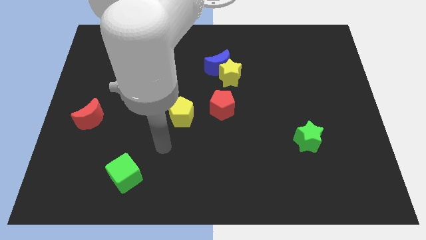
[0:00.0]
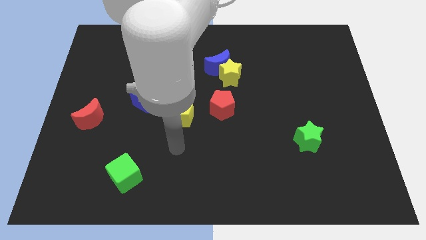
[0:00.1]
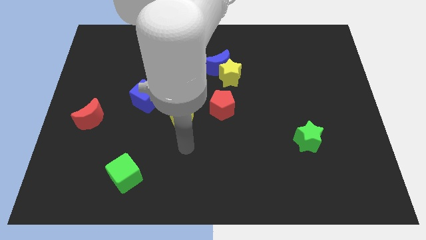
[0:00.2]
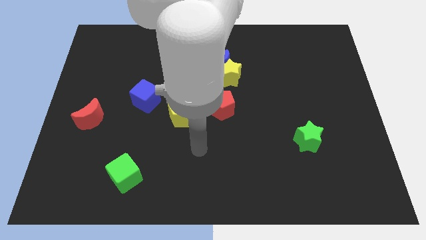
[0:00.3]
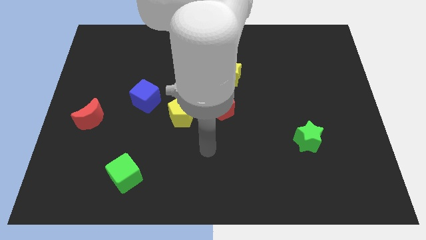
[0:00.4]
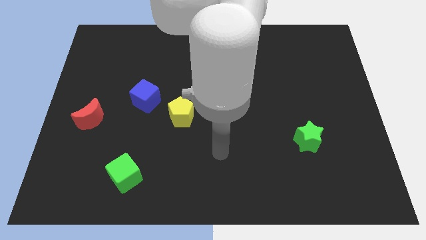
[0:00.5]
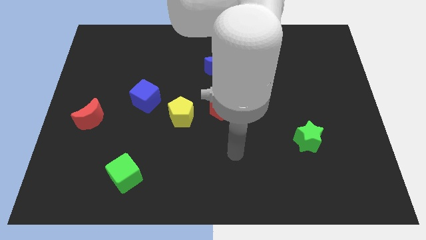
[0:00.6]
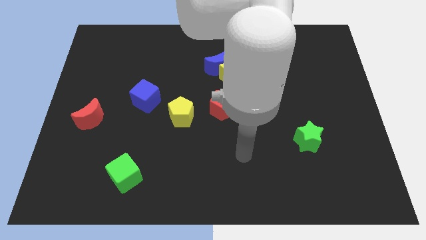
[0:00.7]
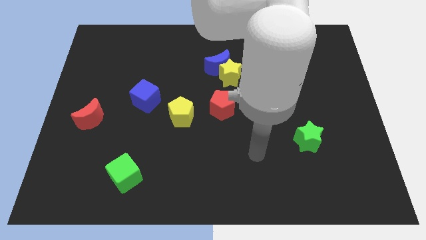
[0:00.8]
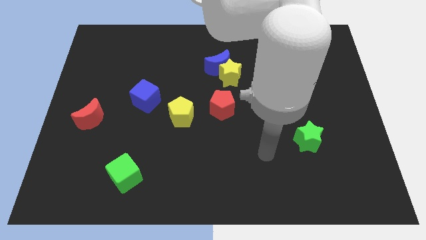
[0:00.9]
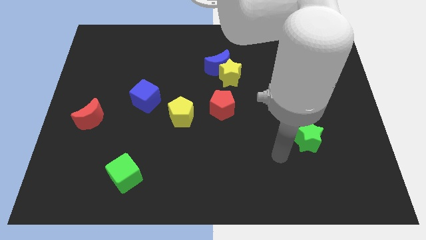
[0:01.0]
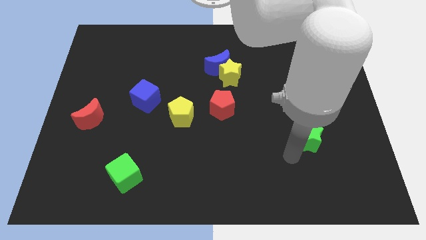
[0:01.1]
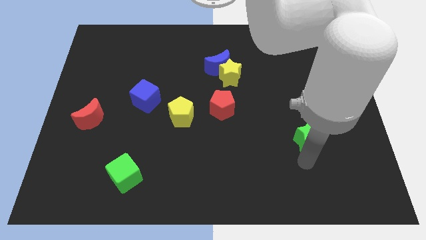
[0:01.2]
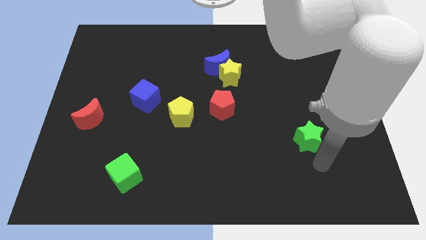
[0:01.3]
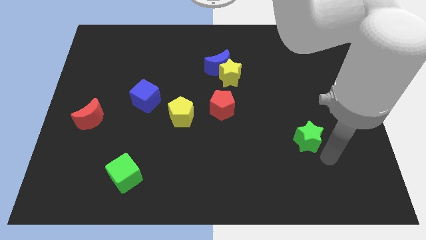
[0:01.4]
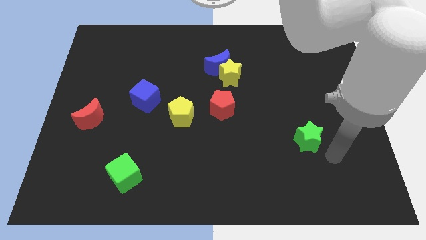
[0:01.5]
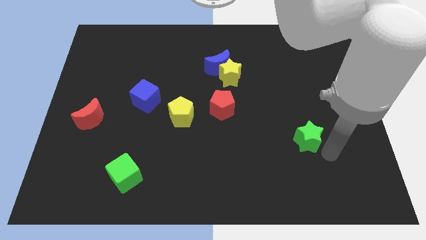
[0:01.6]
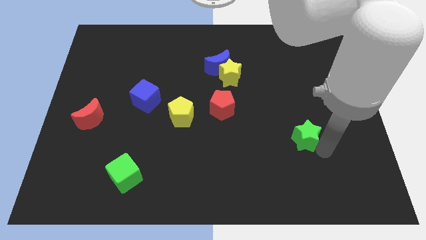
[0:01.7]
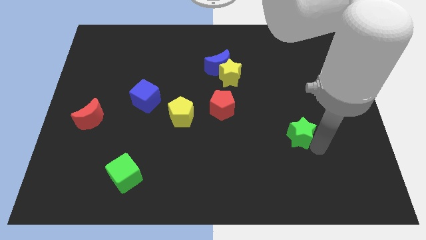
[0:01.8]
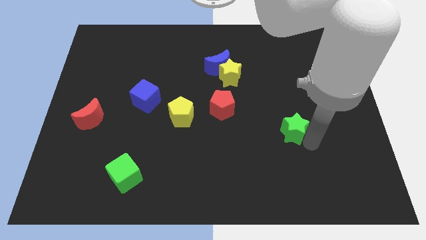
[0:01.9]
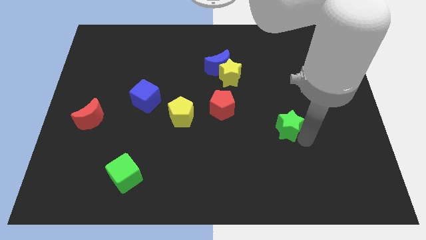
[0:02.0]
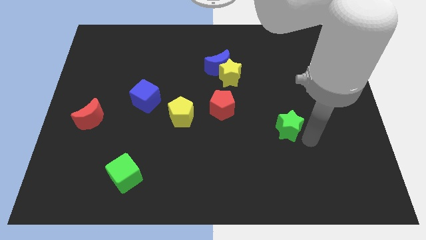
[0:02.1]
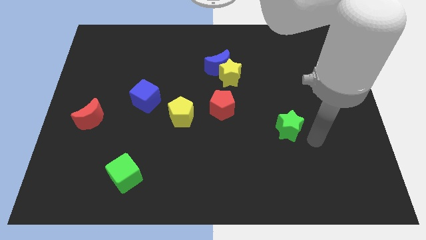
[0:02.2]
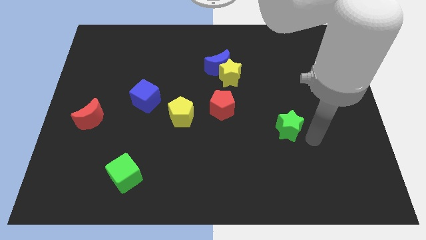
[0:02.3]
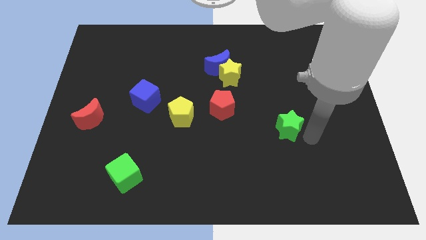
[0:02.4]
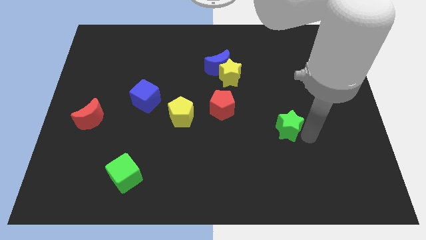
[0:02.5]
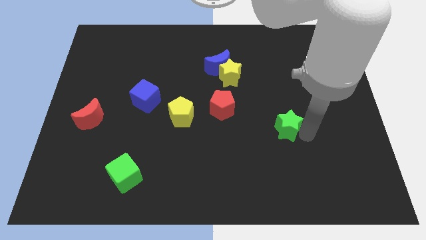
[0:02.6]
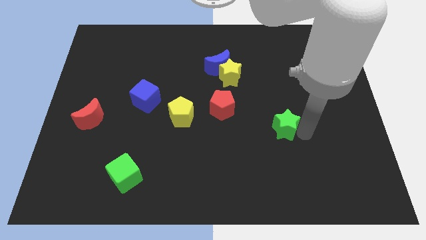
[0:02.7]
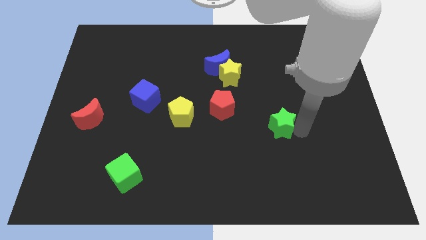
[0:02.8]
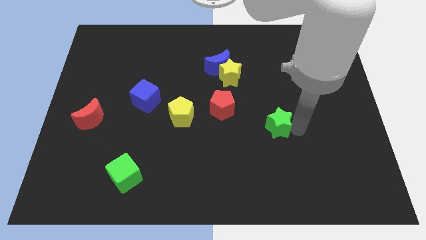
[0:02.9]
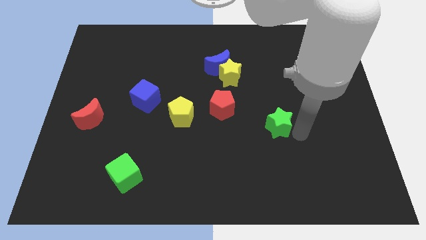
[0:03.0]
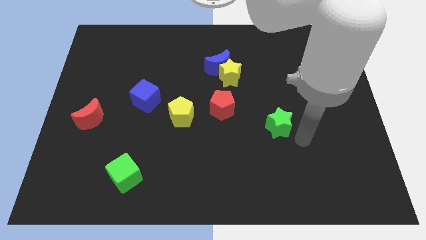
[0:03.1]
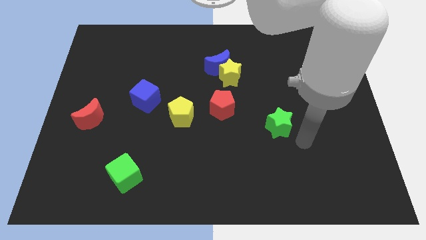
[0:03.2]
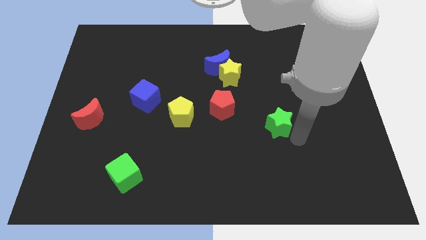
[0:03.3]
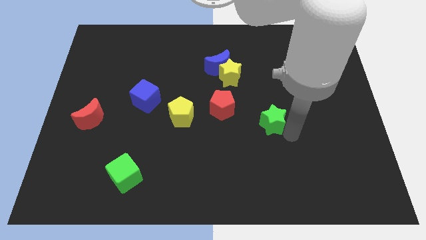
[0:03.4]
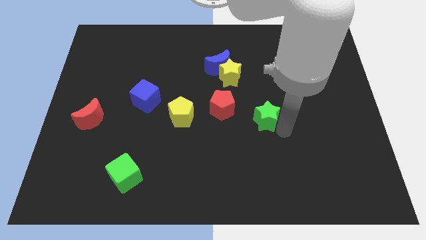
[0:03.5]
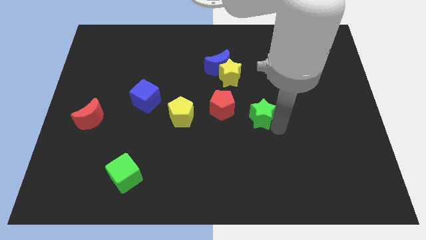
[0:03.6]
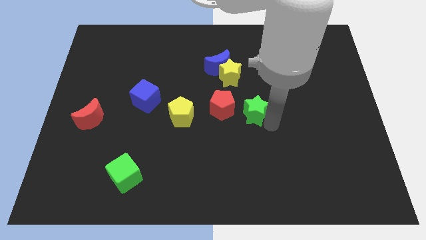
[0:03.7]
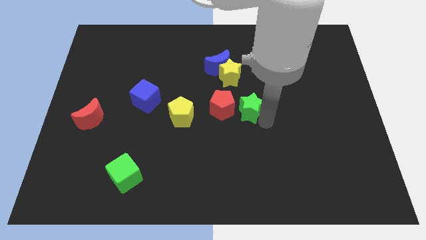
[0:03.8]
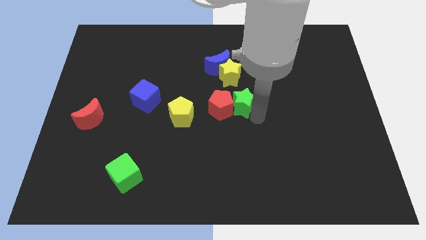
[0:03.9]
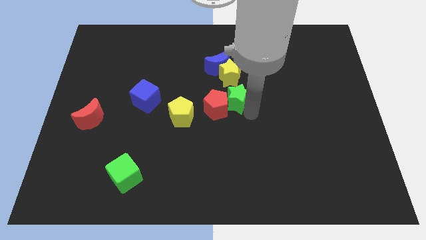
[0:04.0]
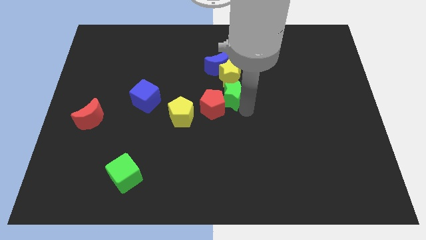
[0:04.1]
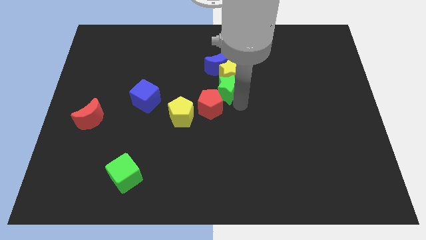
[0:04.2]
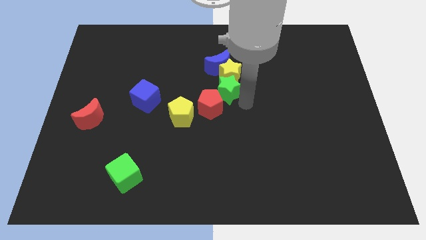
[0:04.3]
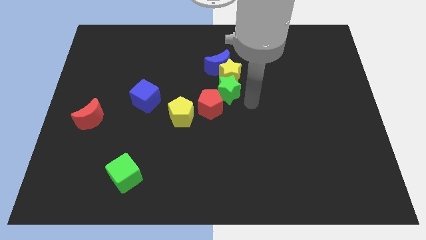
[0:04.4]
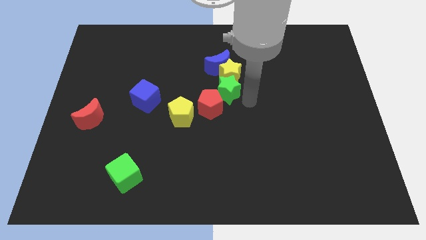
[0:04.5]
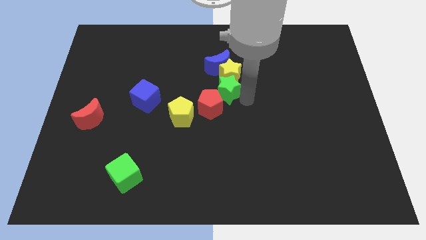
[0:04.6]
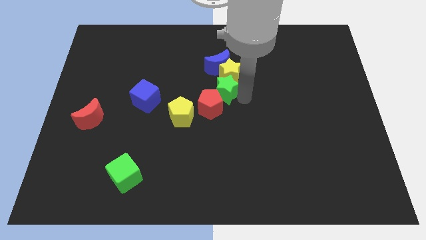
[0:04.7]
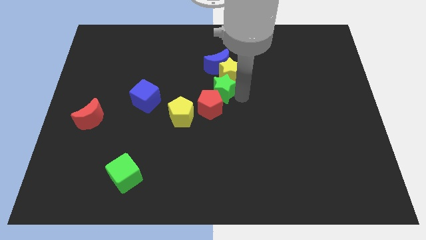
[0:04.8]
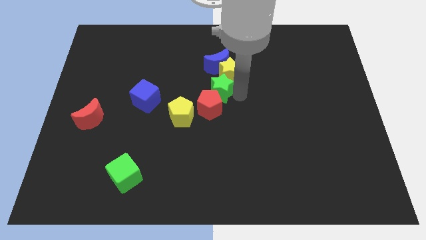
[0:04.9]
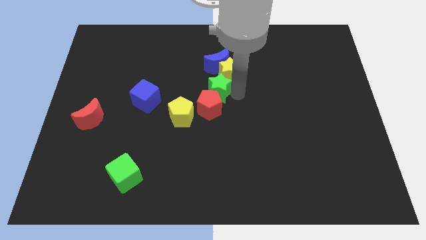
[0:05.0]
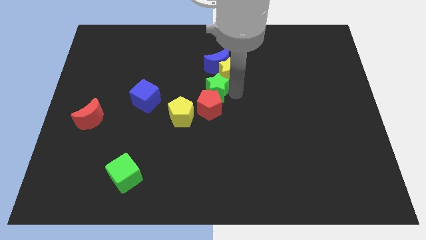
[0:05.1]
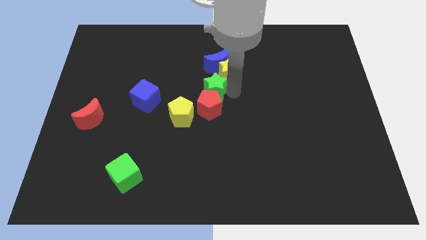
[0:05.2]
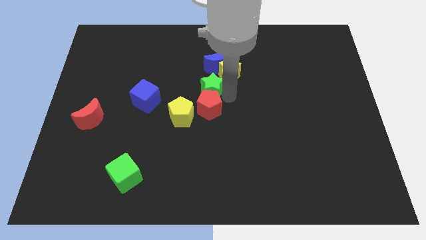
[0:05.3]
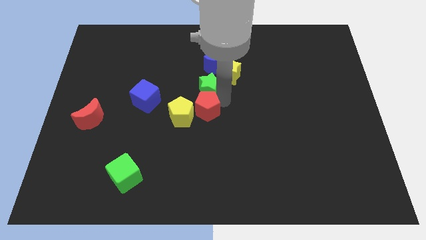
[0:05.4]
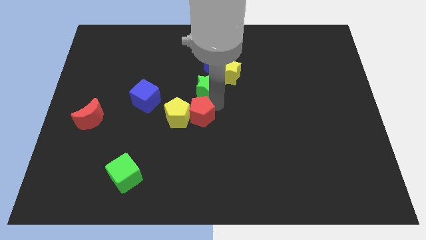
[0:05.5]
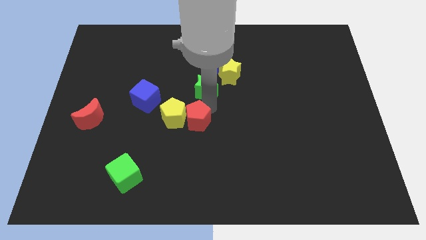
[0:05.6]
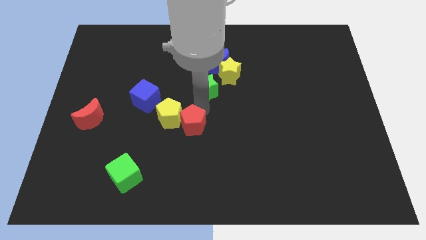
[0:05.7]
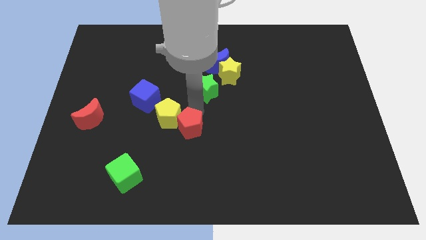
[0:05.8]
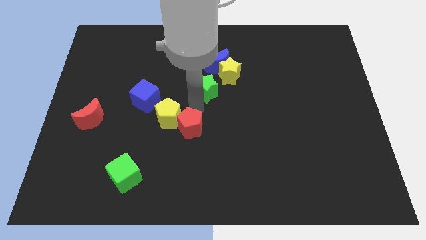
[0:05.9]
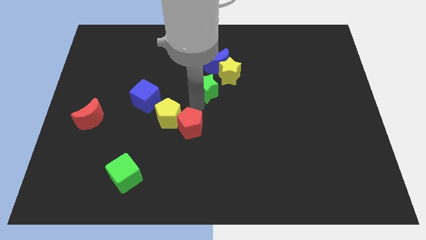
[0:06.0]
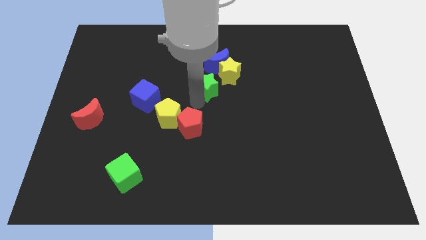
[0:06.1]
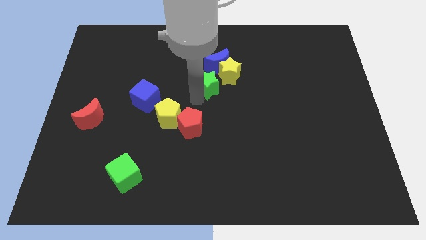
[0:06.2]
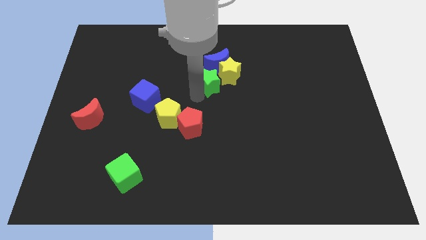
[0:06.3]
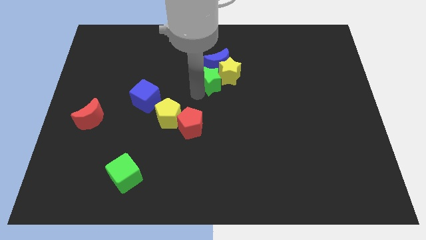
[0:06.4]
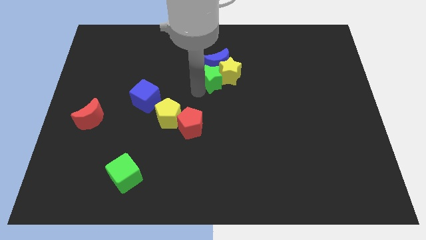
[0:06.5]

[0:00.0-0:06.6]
slide the green star next to the blue moon
